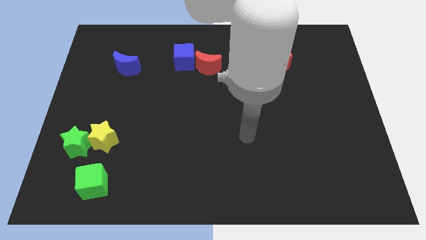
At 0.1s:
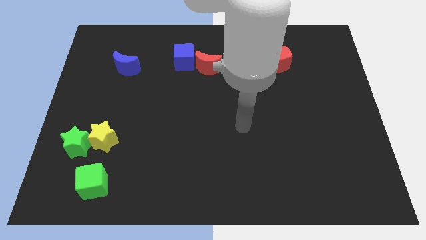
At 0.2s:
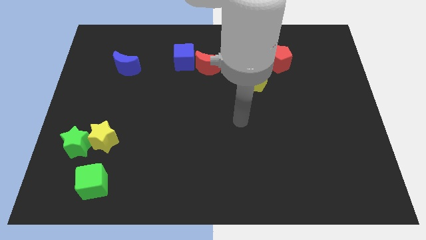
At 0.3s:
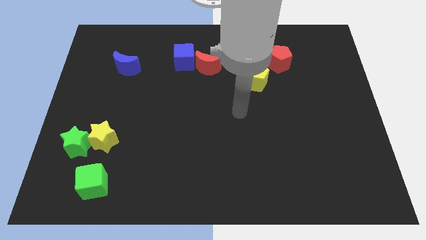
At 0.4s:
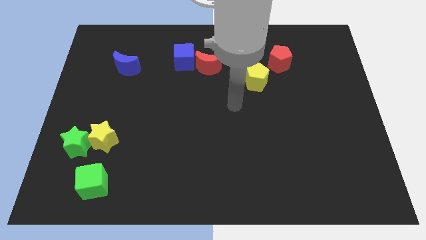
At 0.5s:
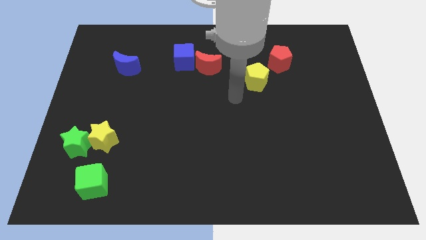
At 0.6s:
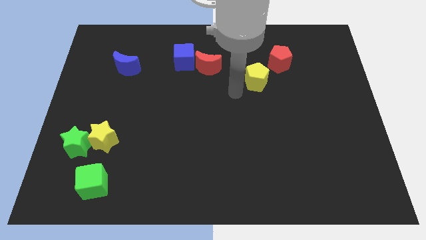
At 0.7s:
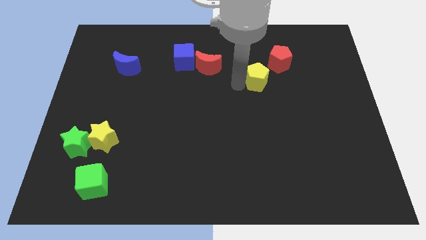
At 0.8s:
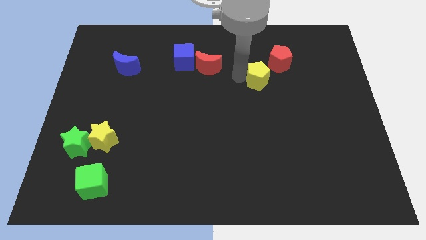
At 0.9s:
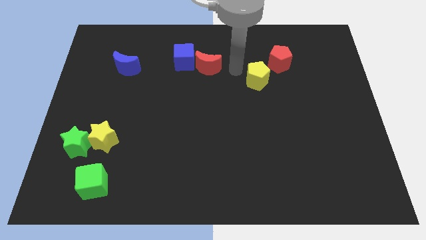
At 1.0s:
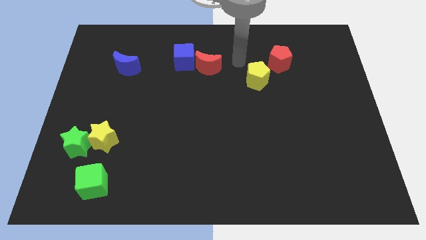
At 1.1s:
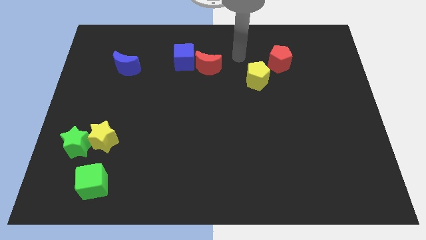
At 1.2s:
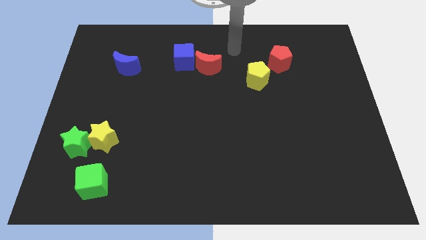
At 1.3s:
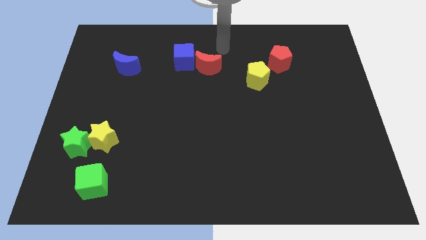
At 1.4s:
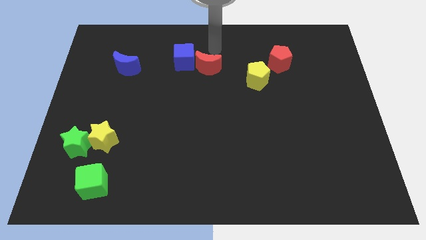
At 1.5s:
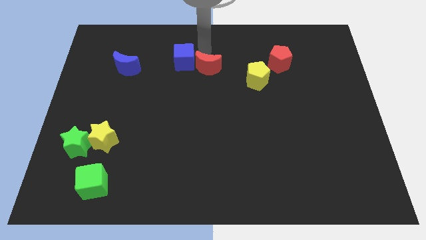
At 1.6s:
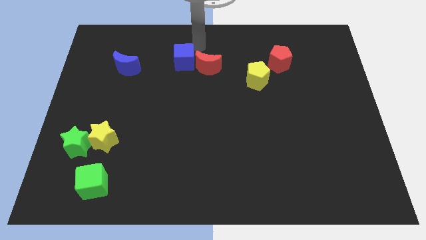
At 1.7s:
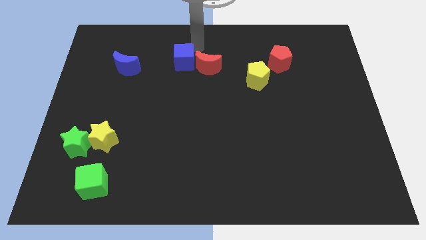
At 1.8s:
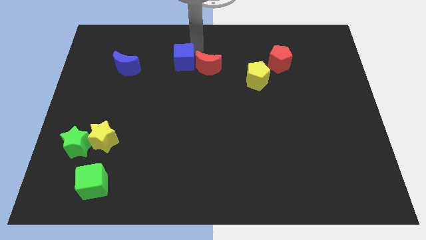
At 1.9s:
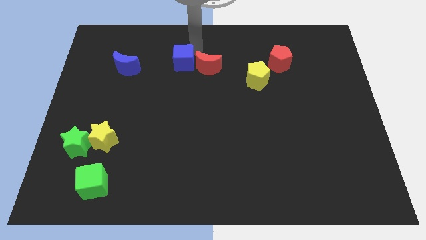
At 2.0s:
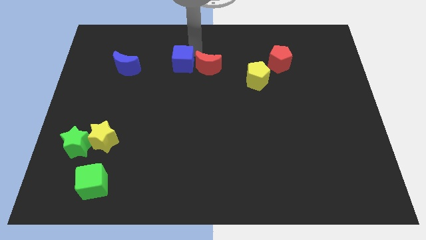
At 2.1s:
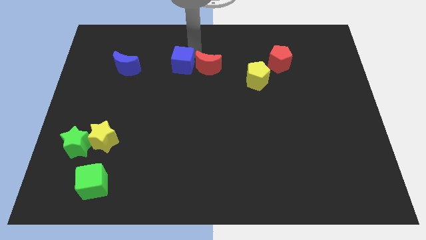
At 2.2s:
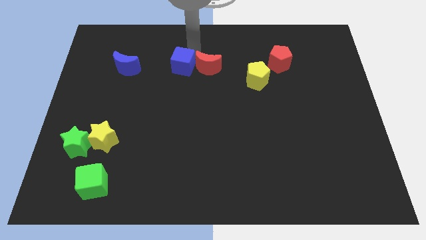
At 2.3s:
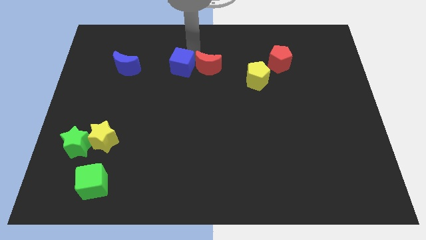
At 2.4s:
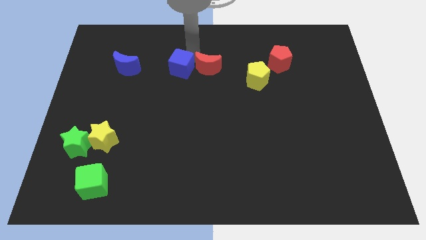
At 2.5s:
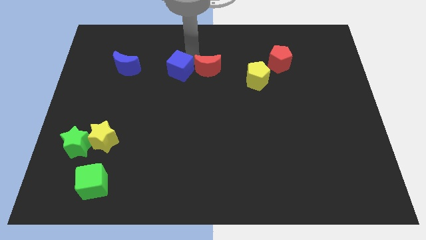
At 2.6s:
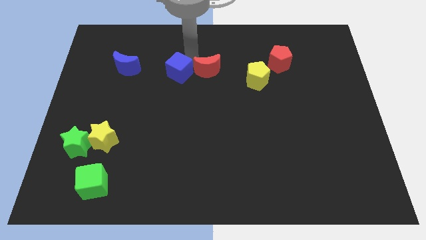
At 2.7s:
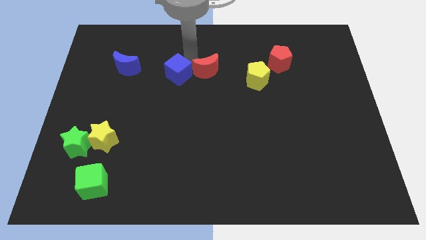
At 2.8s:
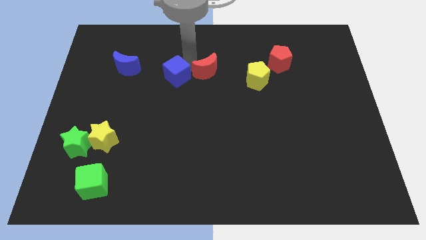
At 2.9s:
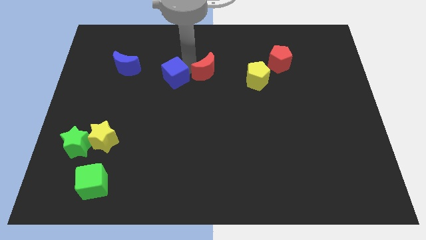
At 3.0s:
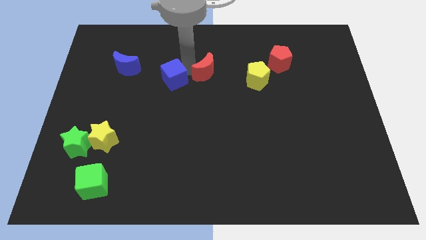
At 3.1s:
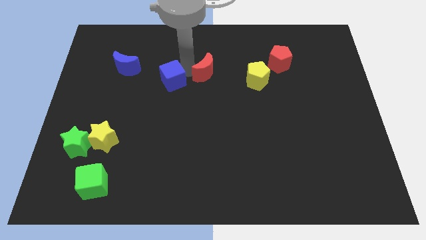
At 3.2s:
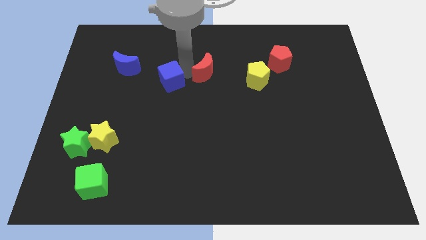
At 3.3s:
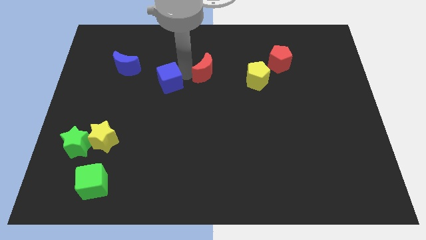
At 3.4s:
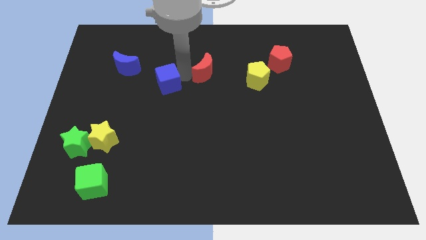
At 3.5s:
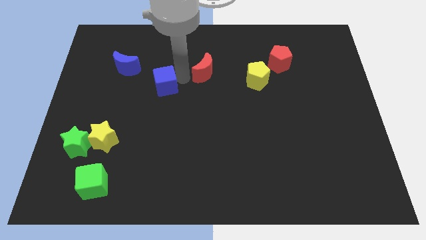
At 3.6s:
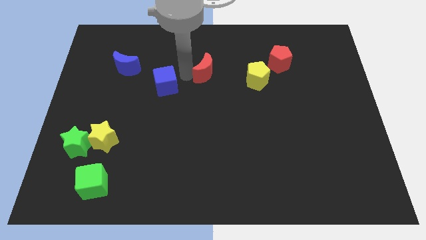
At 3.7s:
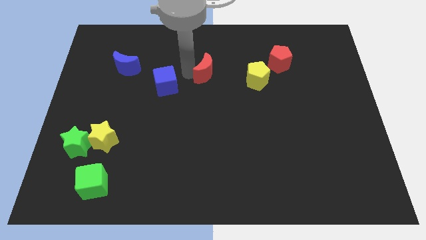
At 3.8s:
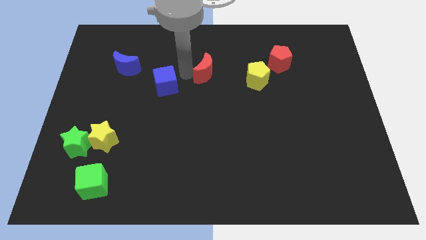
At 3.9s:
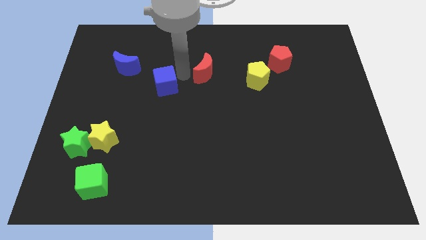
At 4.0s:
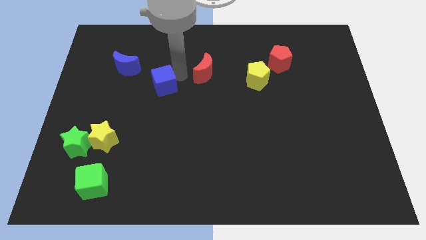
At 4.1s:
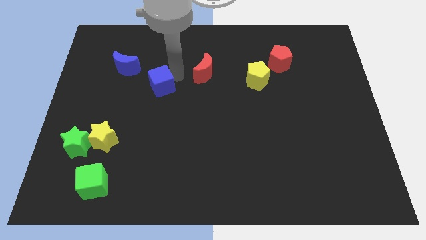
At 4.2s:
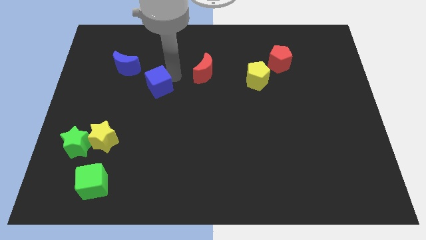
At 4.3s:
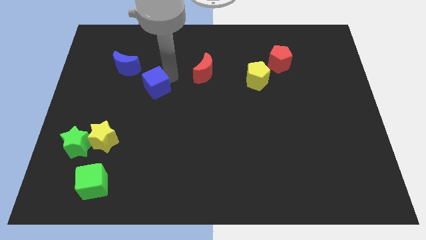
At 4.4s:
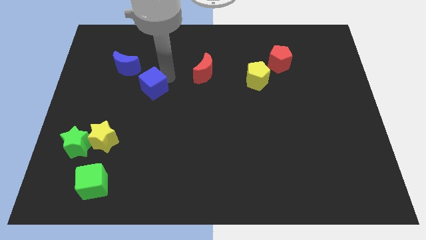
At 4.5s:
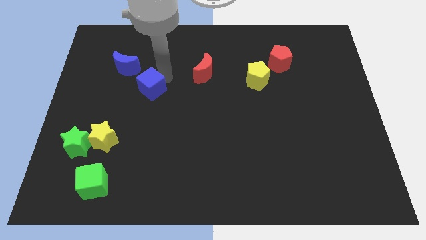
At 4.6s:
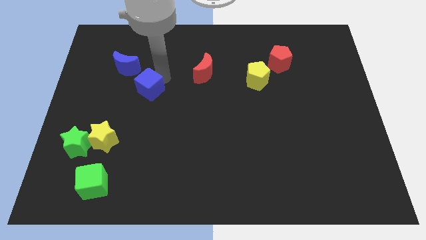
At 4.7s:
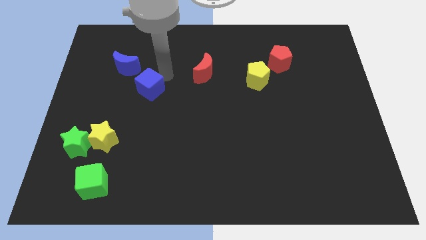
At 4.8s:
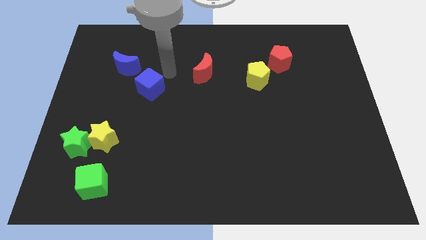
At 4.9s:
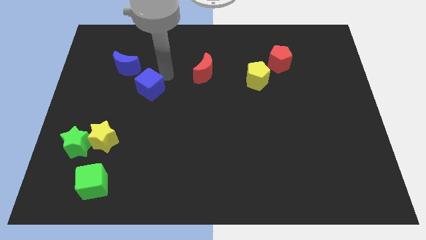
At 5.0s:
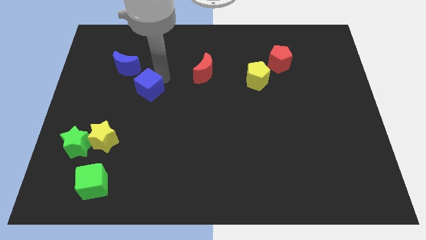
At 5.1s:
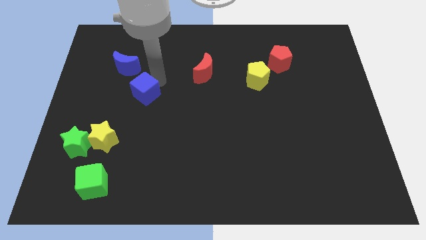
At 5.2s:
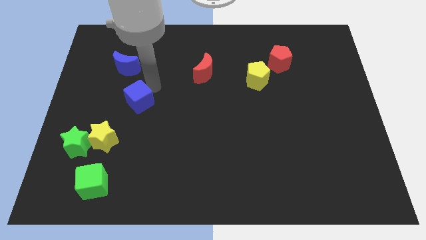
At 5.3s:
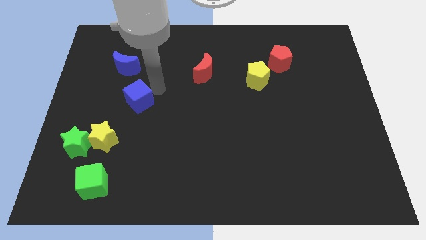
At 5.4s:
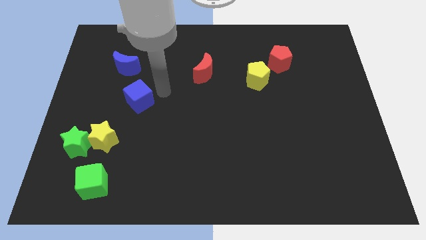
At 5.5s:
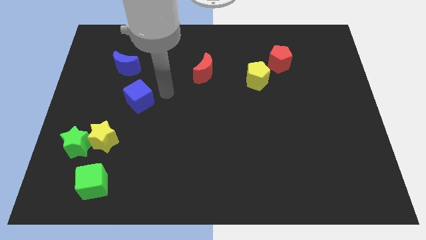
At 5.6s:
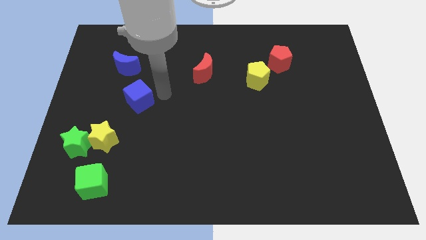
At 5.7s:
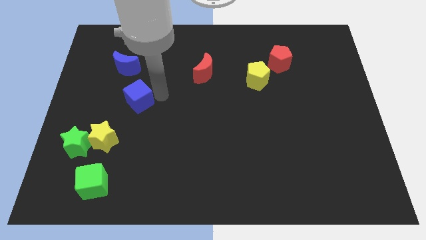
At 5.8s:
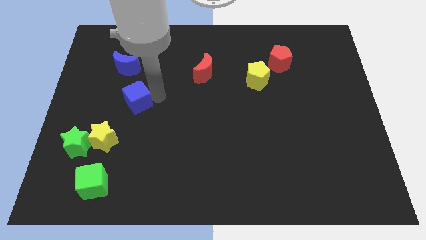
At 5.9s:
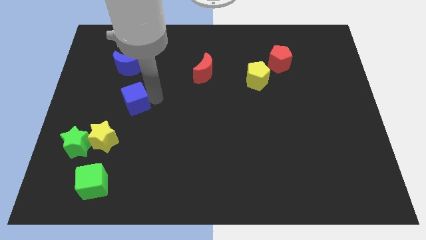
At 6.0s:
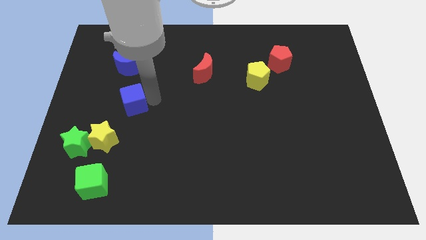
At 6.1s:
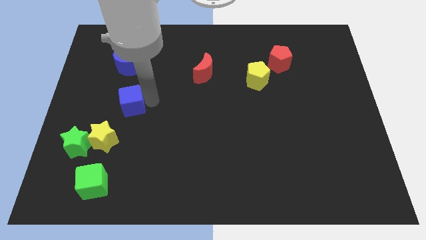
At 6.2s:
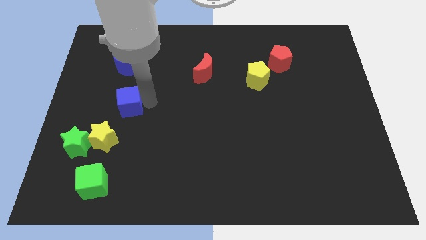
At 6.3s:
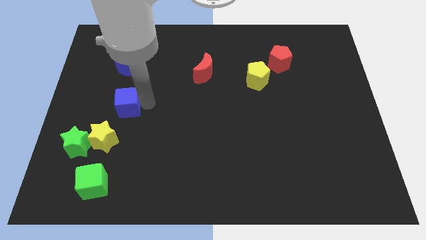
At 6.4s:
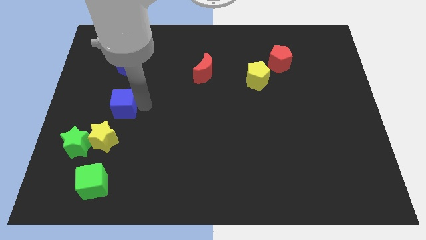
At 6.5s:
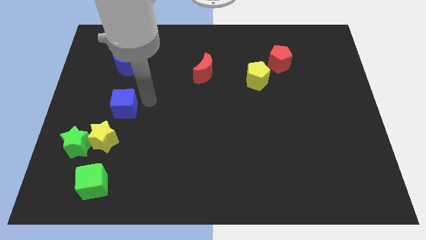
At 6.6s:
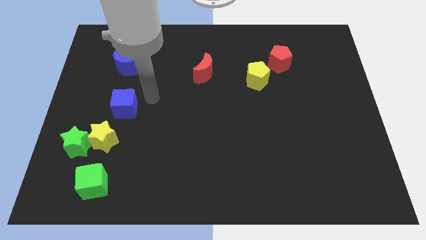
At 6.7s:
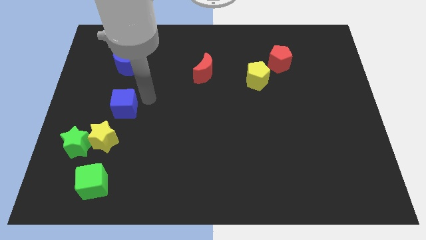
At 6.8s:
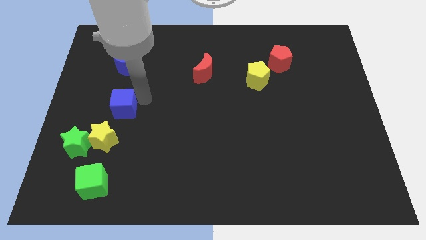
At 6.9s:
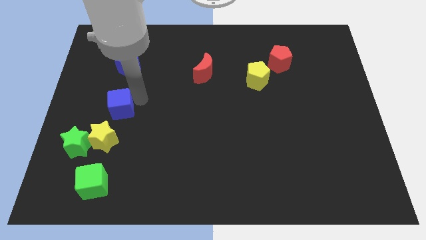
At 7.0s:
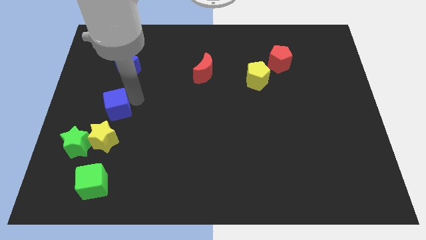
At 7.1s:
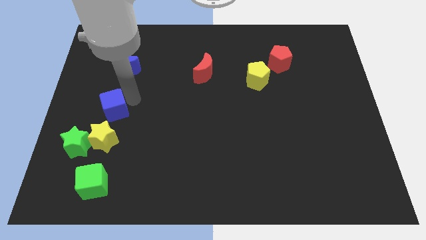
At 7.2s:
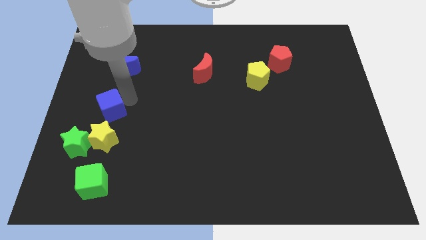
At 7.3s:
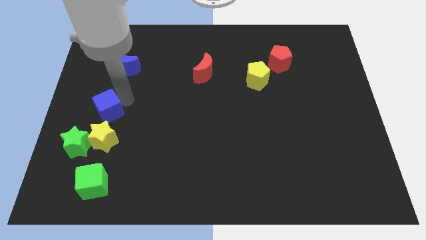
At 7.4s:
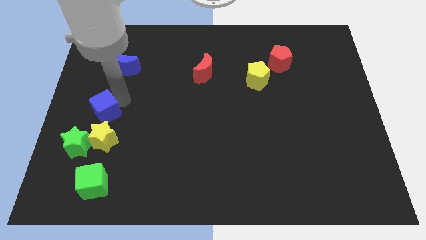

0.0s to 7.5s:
move the blue cube to the top left of the yellow star
